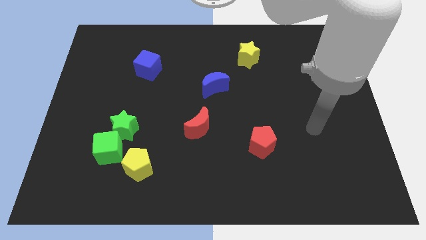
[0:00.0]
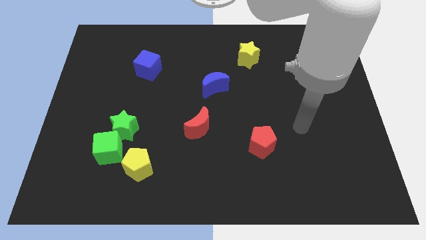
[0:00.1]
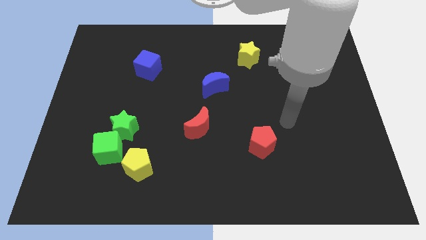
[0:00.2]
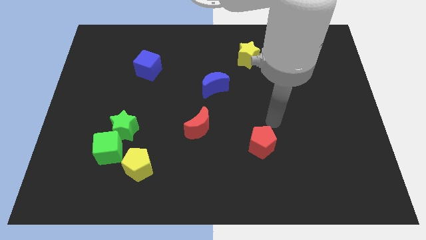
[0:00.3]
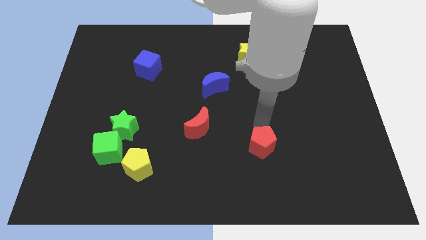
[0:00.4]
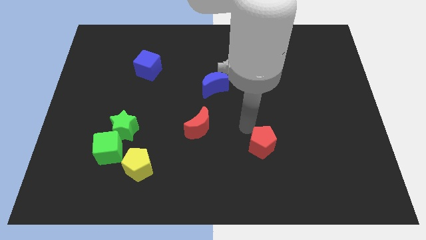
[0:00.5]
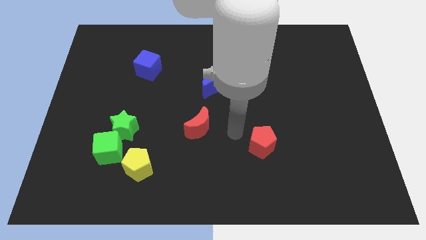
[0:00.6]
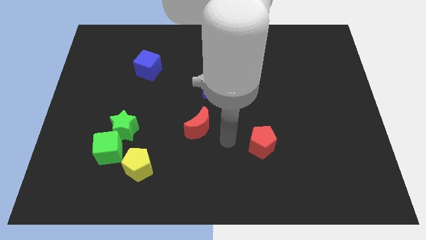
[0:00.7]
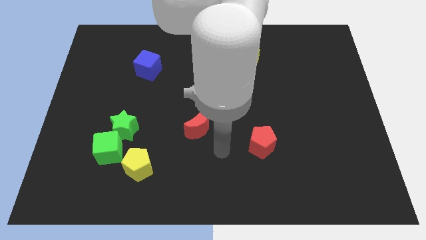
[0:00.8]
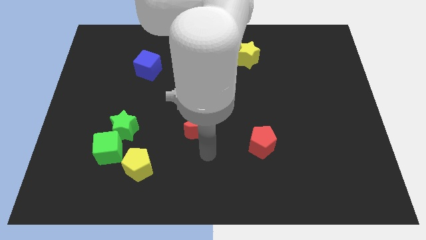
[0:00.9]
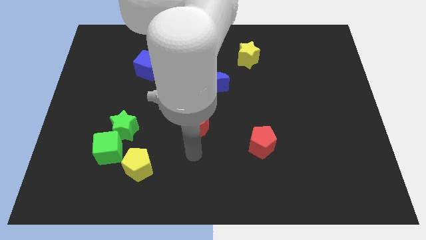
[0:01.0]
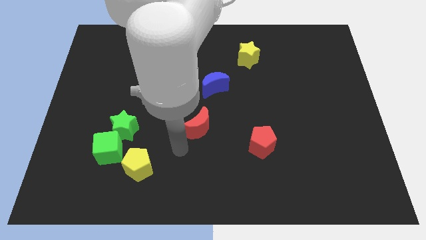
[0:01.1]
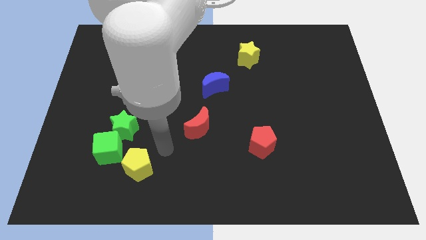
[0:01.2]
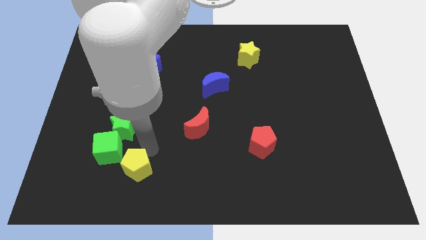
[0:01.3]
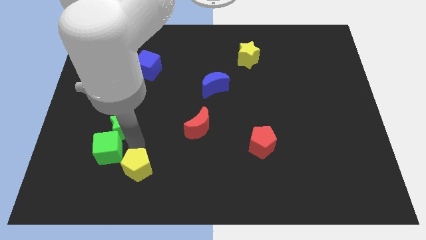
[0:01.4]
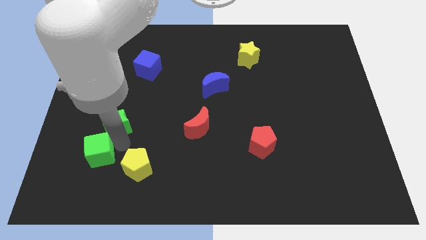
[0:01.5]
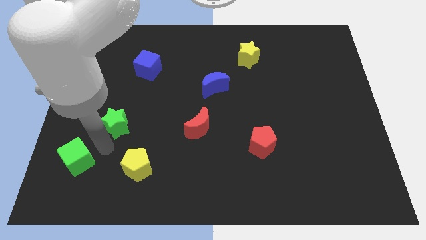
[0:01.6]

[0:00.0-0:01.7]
move the green star away from the green cube

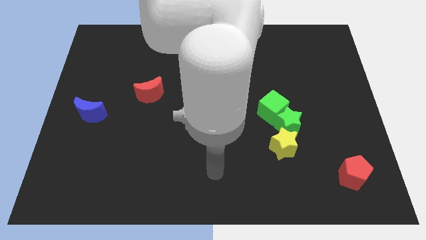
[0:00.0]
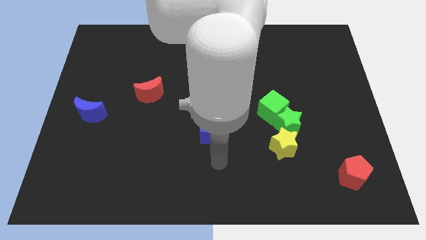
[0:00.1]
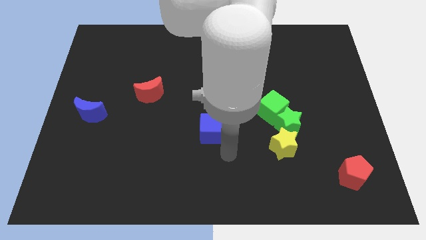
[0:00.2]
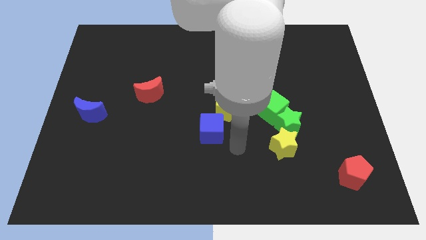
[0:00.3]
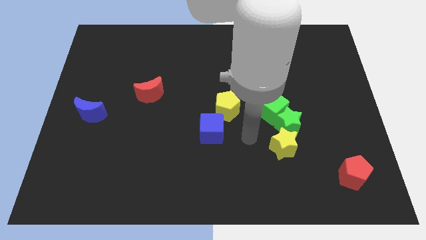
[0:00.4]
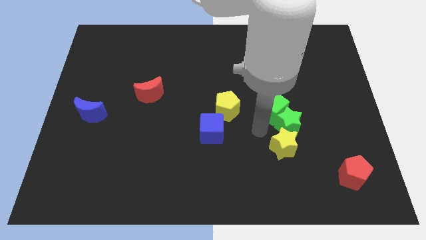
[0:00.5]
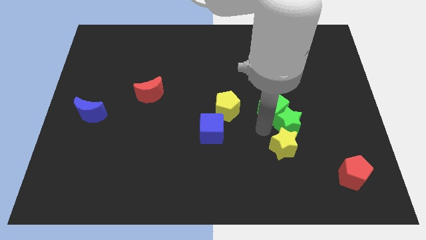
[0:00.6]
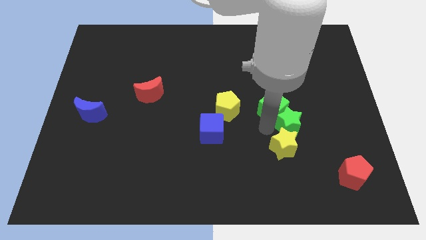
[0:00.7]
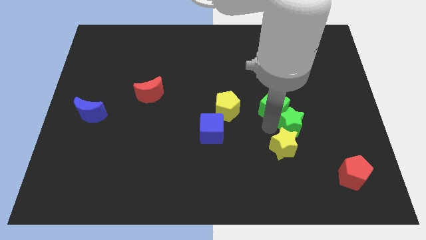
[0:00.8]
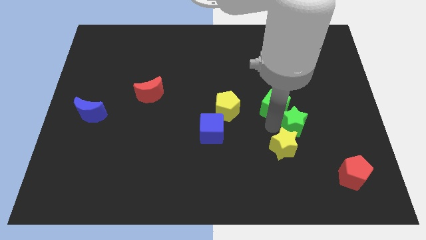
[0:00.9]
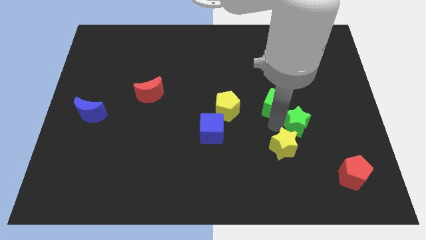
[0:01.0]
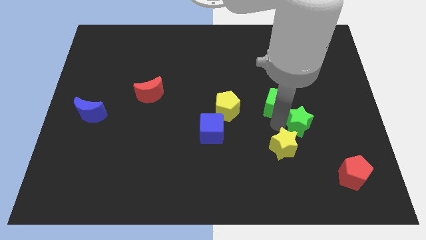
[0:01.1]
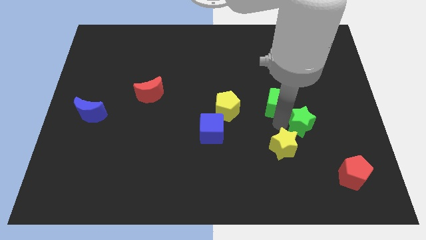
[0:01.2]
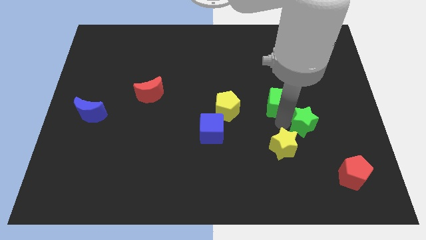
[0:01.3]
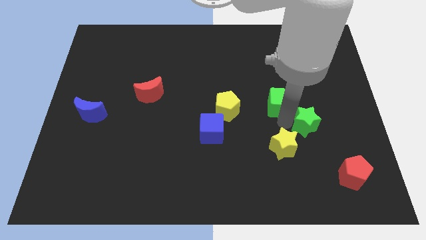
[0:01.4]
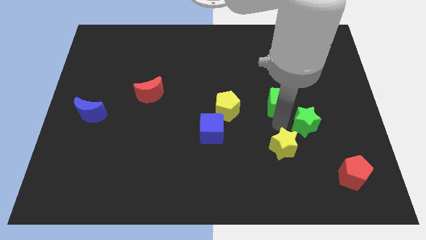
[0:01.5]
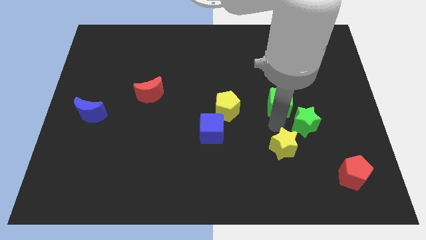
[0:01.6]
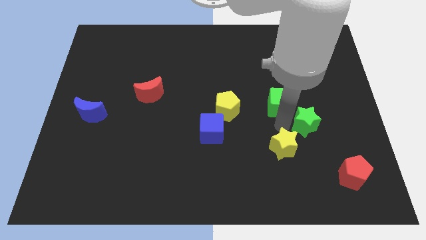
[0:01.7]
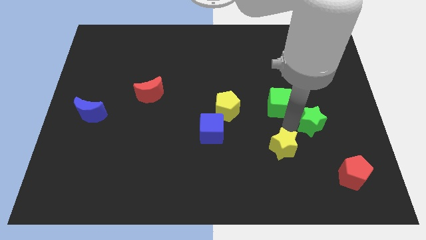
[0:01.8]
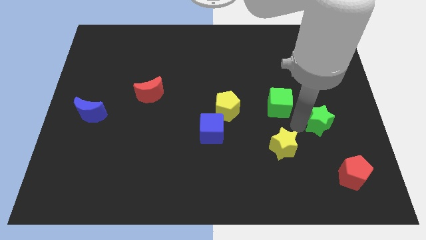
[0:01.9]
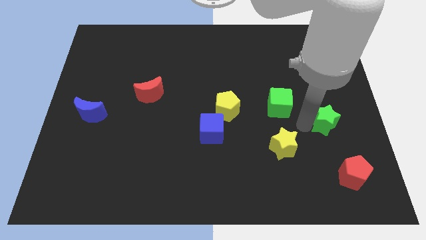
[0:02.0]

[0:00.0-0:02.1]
pull the green star apart from the yellow star and green cube

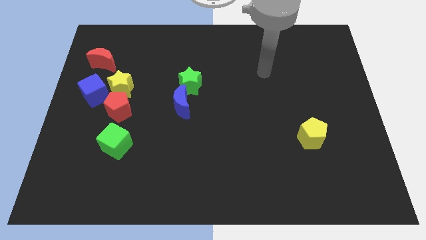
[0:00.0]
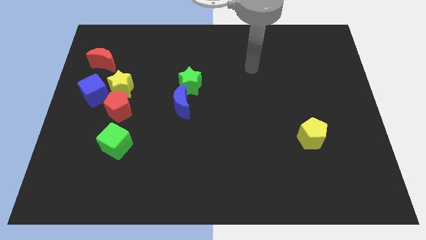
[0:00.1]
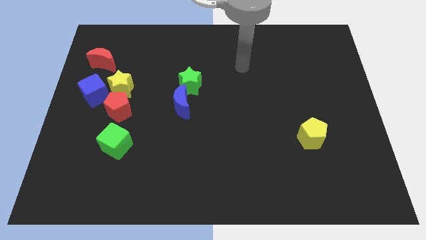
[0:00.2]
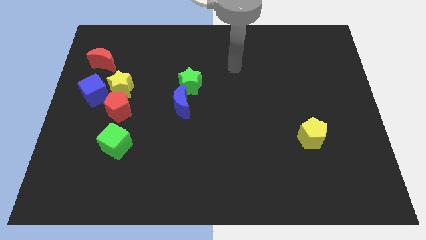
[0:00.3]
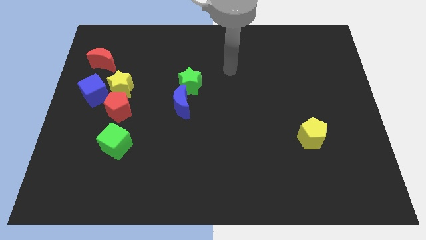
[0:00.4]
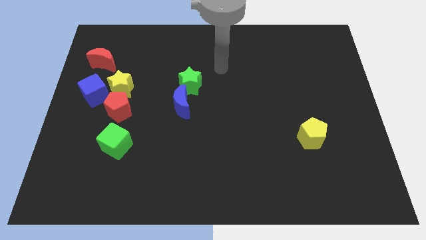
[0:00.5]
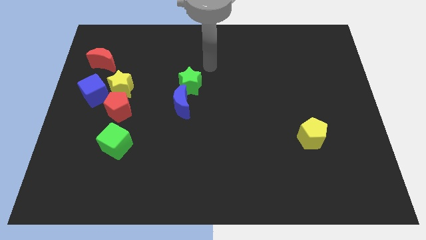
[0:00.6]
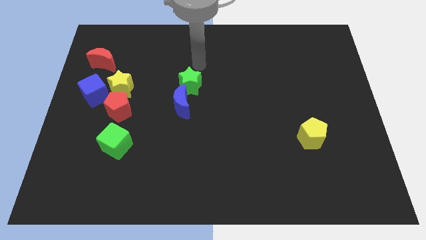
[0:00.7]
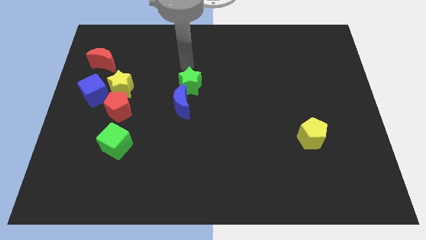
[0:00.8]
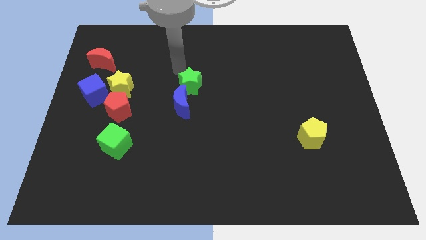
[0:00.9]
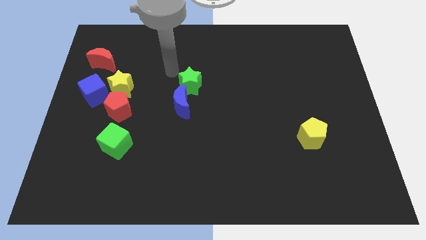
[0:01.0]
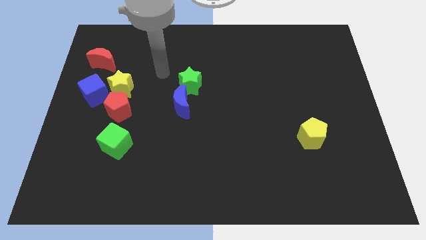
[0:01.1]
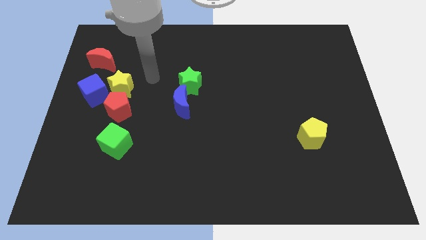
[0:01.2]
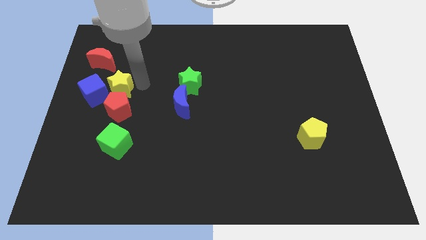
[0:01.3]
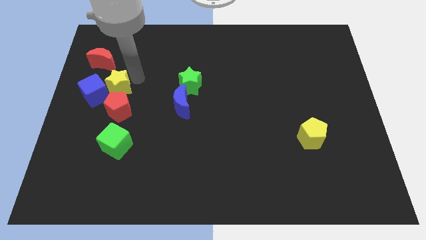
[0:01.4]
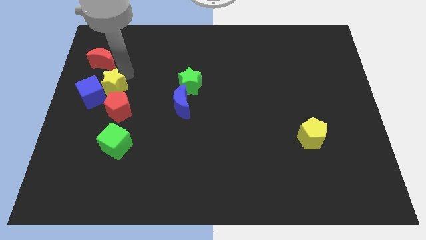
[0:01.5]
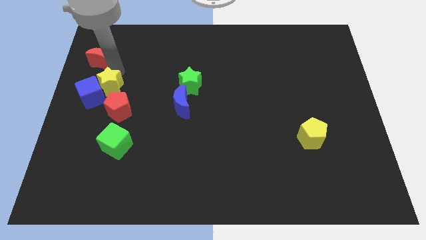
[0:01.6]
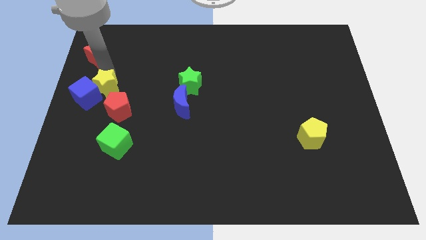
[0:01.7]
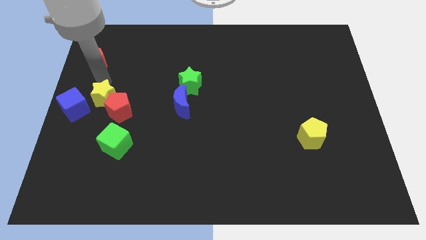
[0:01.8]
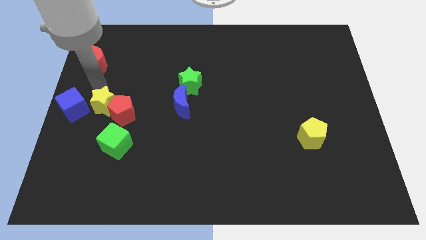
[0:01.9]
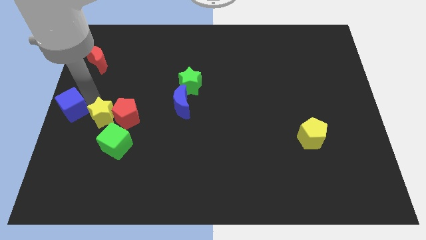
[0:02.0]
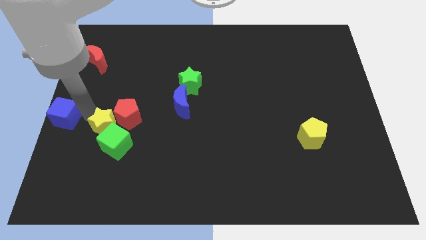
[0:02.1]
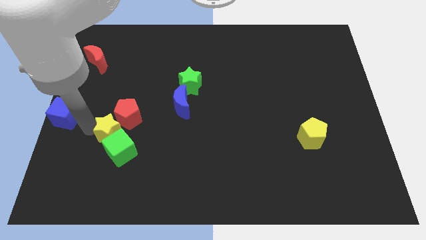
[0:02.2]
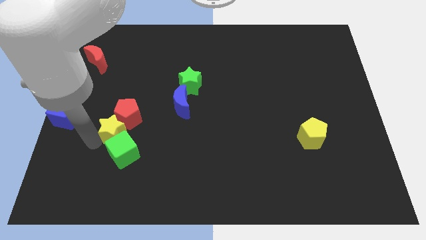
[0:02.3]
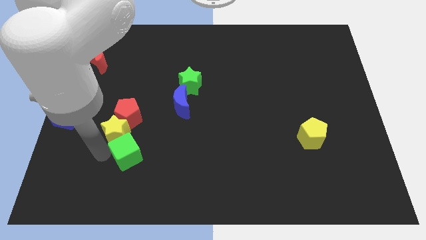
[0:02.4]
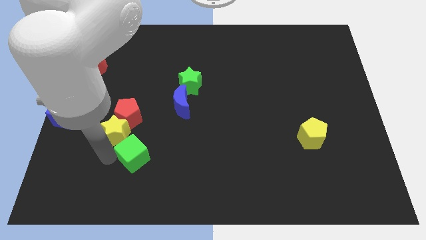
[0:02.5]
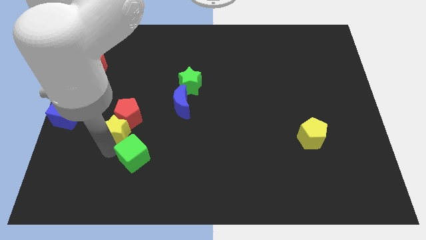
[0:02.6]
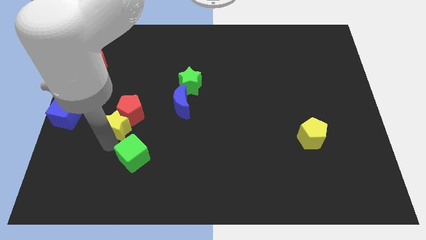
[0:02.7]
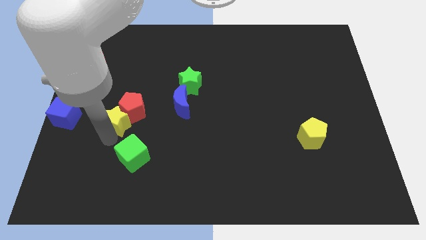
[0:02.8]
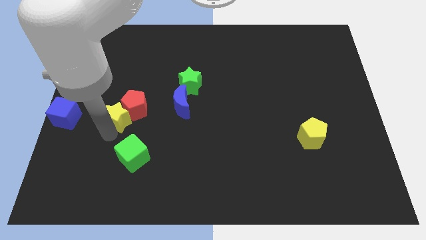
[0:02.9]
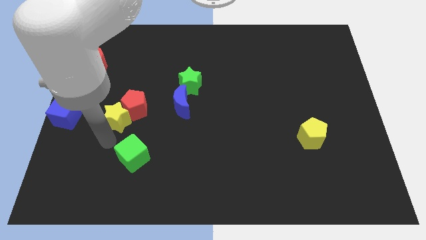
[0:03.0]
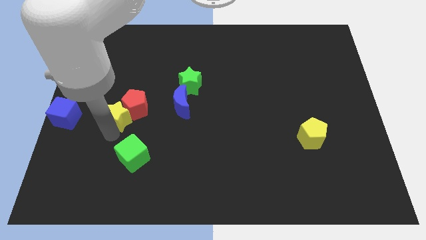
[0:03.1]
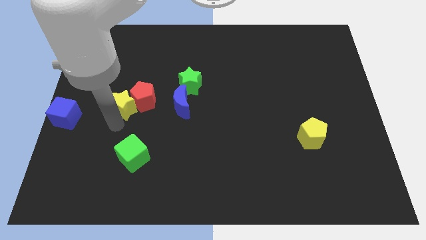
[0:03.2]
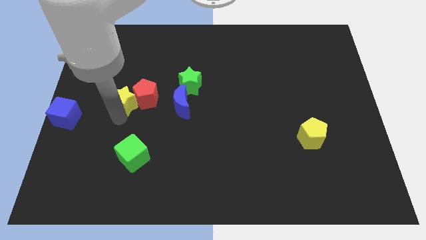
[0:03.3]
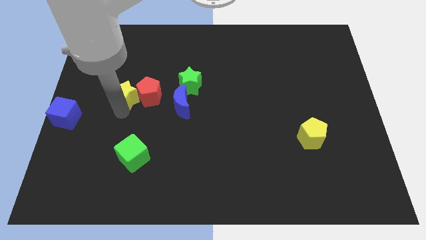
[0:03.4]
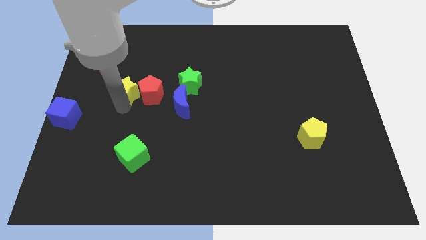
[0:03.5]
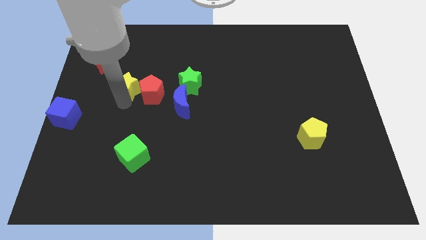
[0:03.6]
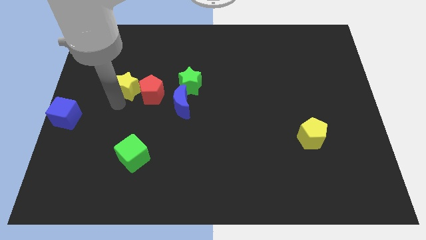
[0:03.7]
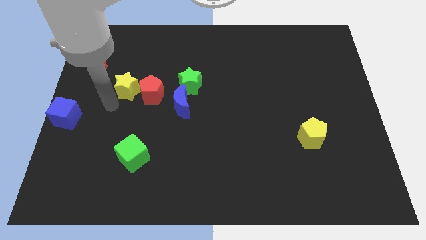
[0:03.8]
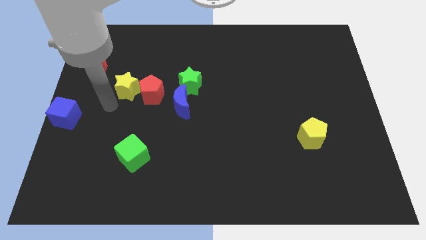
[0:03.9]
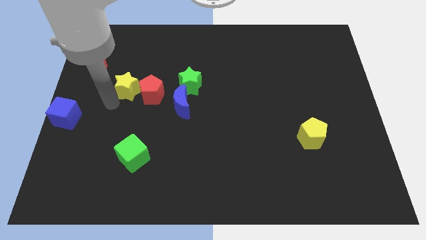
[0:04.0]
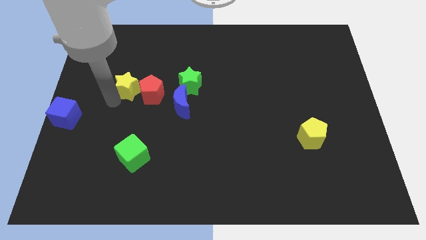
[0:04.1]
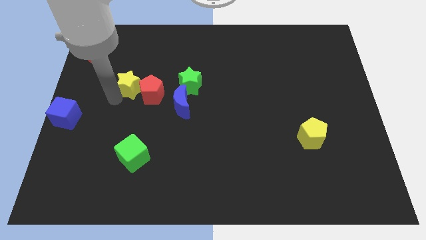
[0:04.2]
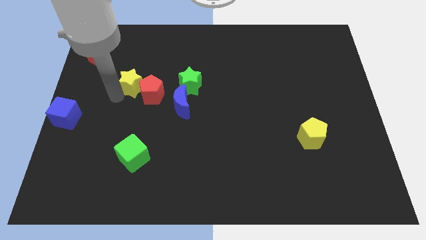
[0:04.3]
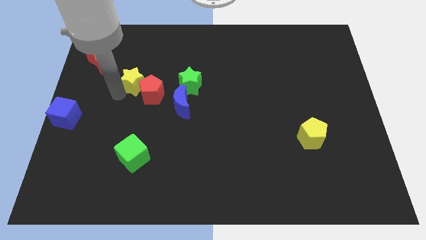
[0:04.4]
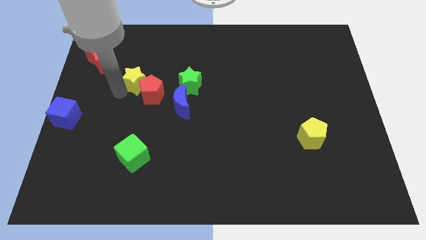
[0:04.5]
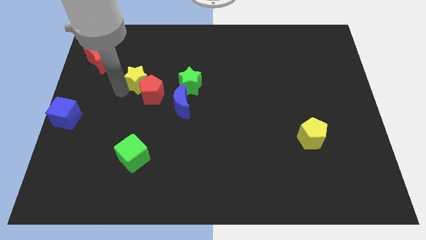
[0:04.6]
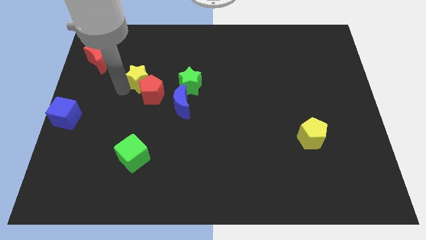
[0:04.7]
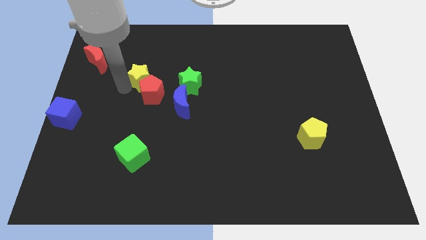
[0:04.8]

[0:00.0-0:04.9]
separate the yellow star from the red pentagon and blue cube

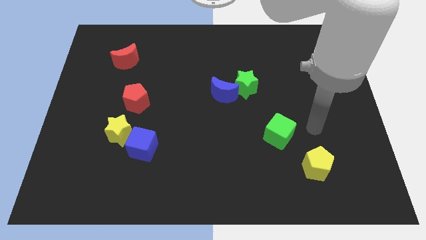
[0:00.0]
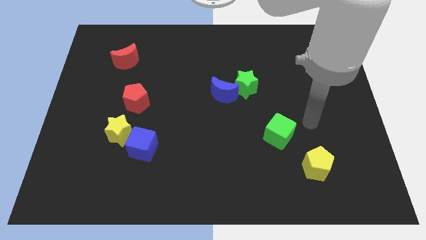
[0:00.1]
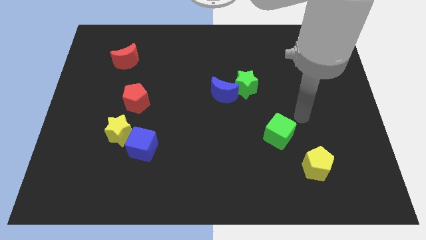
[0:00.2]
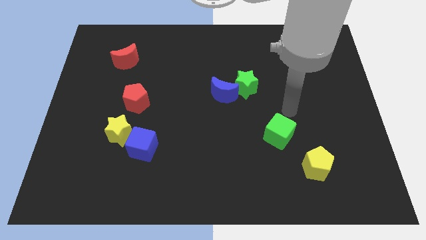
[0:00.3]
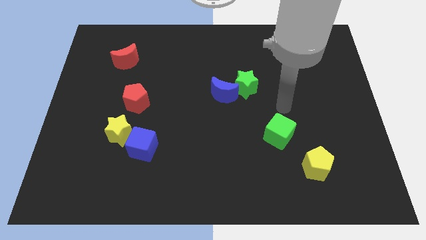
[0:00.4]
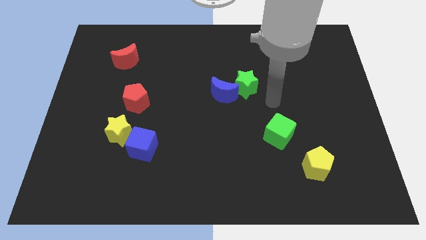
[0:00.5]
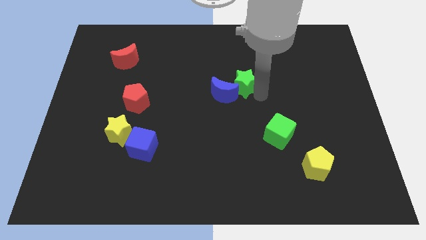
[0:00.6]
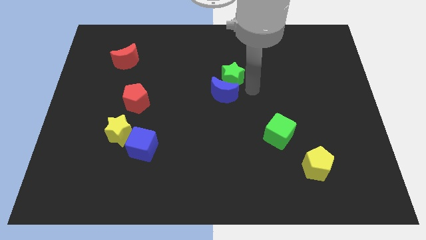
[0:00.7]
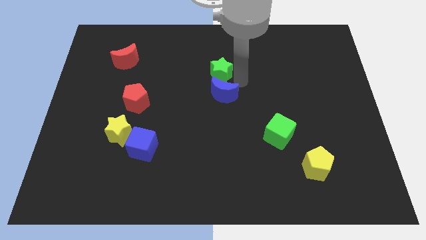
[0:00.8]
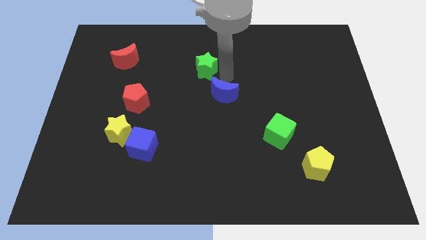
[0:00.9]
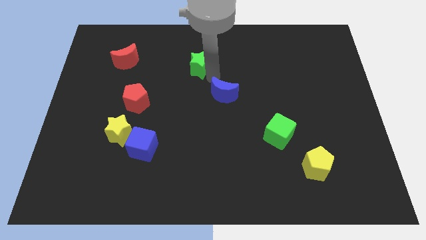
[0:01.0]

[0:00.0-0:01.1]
separate the blue moon from the green star
